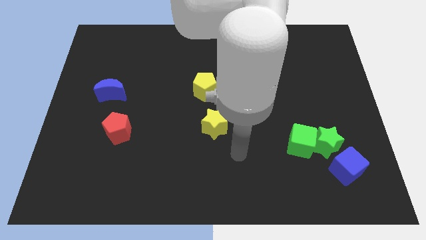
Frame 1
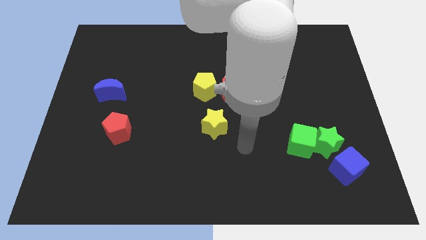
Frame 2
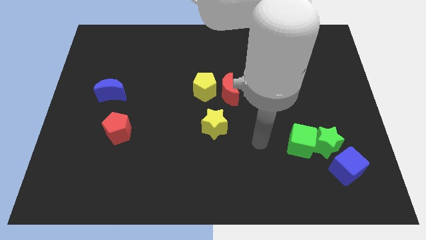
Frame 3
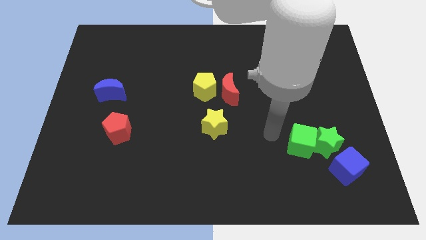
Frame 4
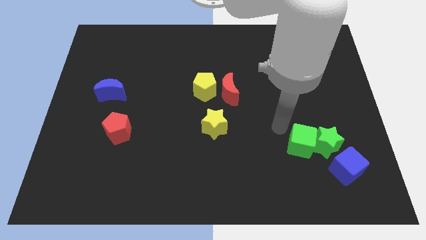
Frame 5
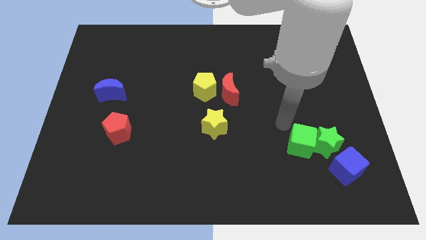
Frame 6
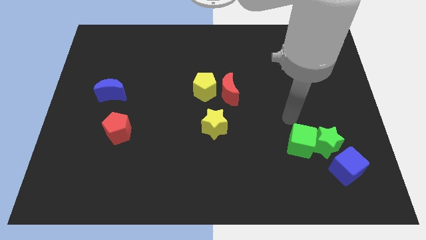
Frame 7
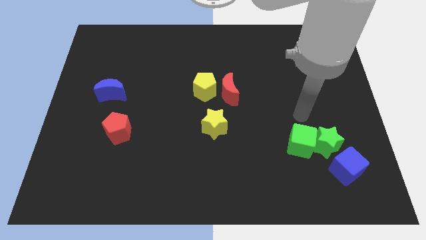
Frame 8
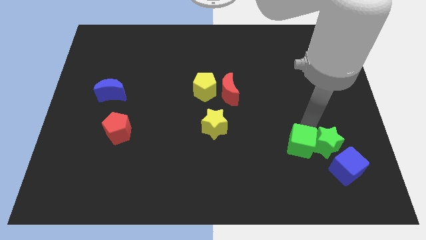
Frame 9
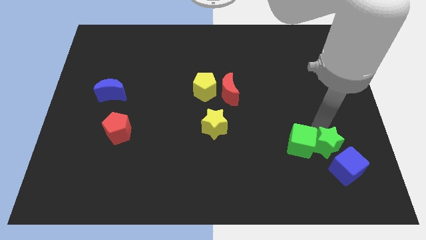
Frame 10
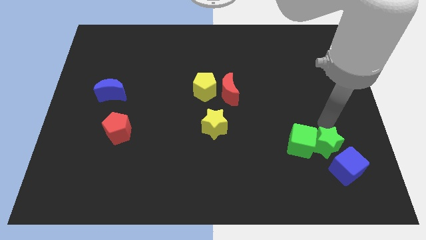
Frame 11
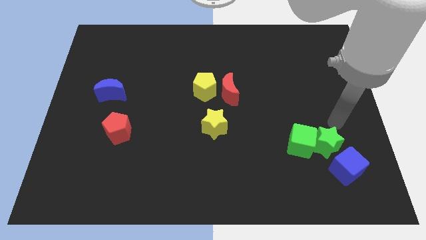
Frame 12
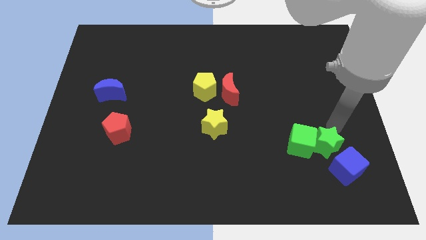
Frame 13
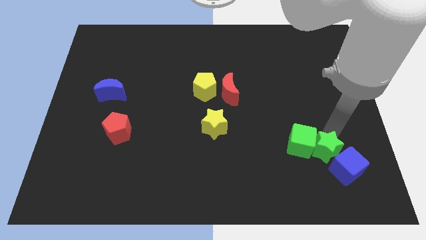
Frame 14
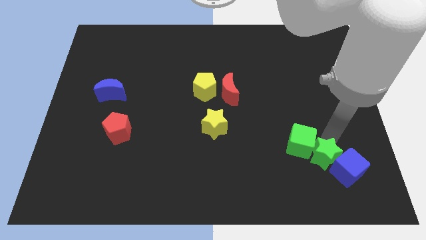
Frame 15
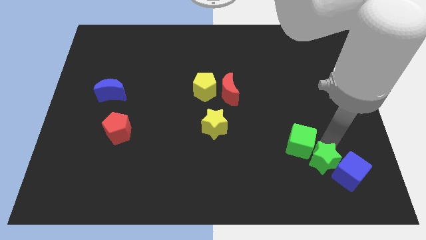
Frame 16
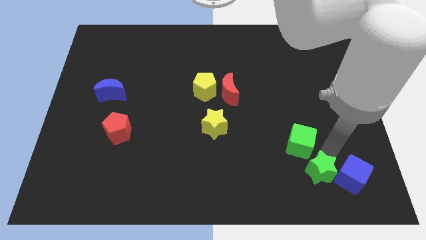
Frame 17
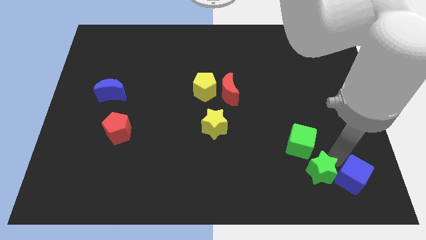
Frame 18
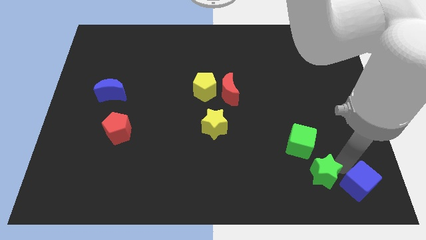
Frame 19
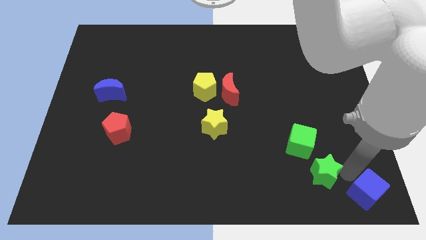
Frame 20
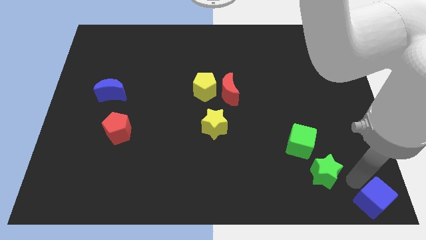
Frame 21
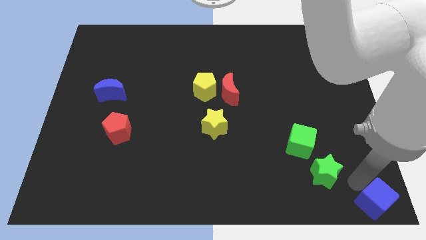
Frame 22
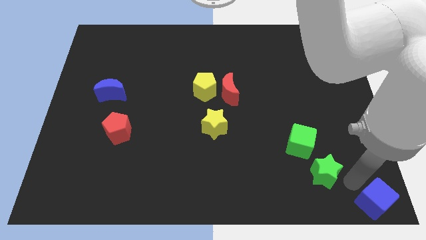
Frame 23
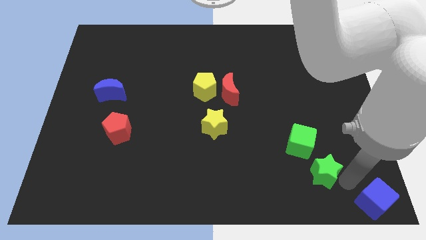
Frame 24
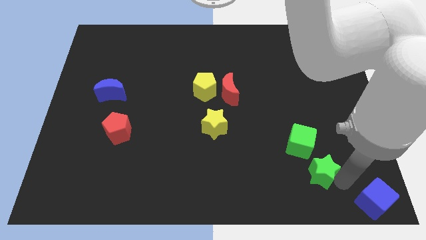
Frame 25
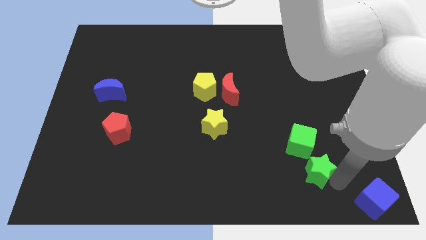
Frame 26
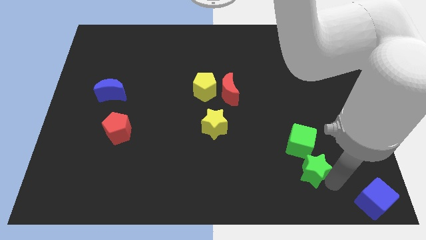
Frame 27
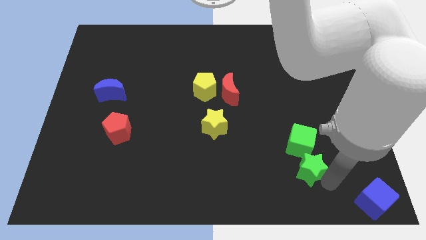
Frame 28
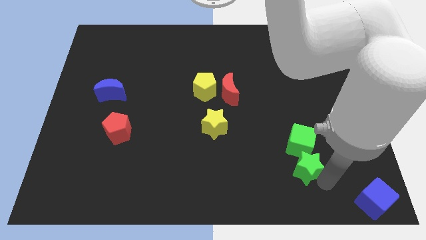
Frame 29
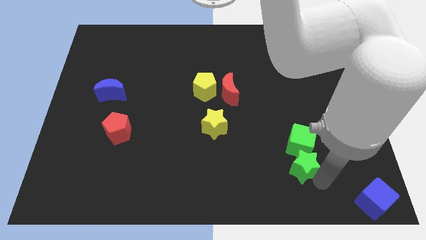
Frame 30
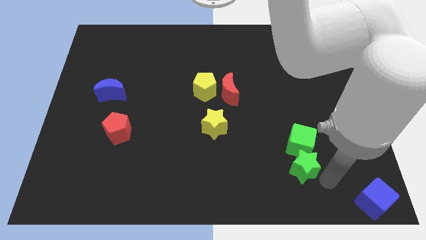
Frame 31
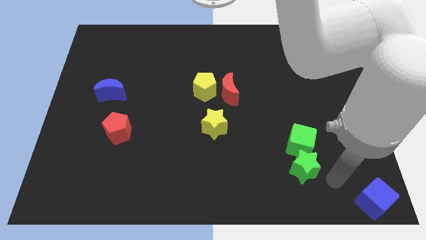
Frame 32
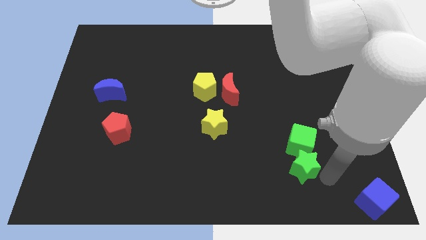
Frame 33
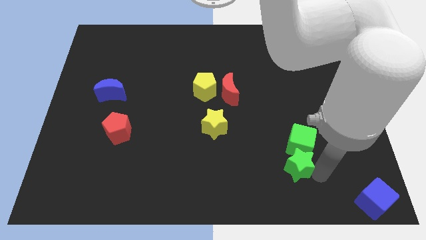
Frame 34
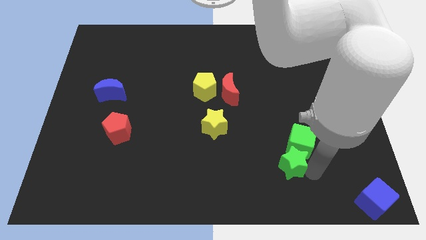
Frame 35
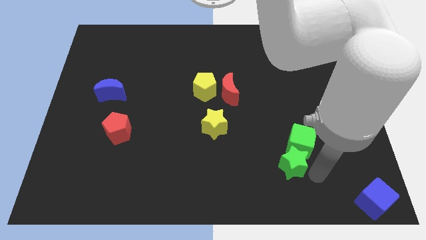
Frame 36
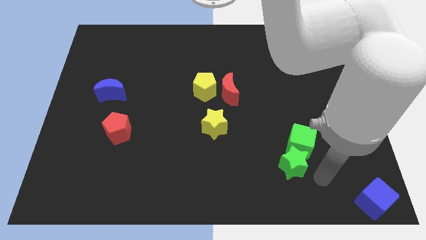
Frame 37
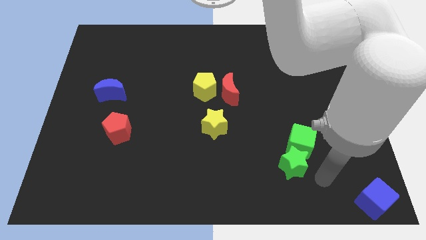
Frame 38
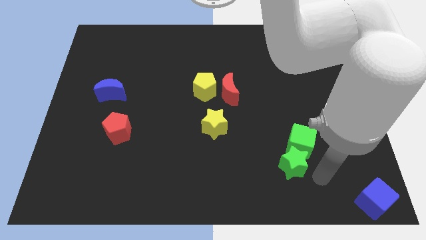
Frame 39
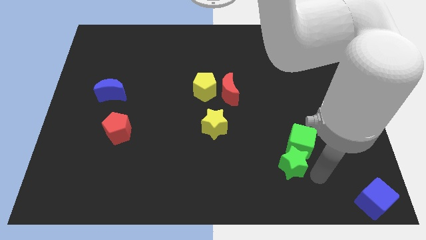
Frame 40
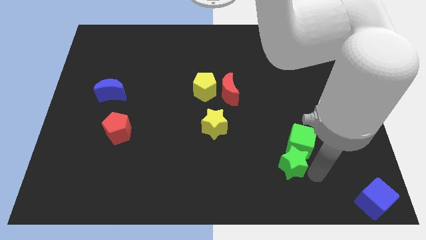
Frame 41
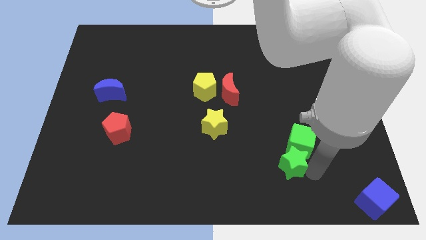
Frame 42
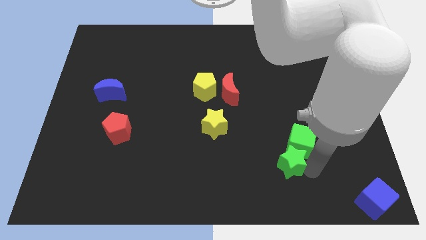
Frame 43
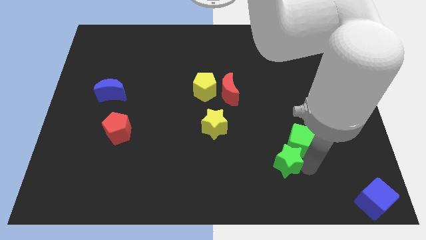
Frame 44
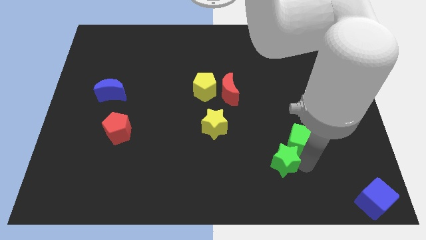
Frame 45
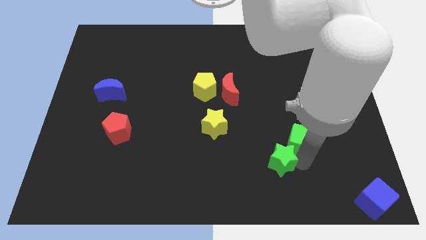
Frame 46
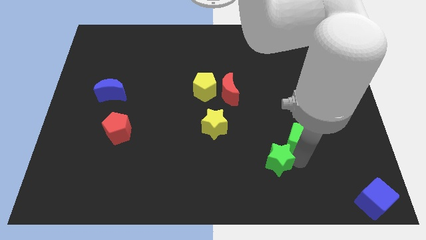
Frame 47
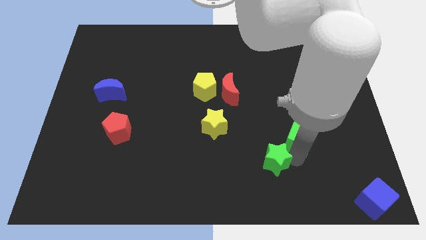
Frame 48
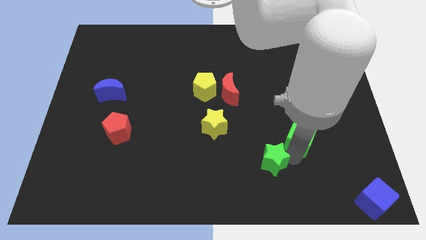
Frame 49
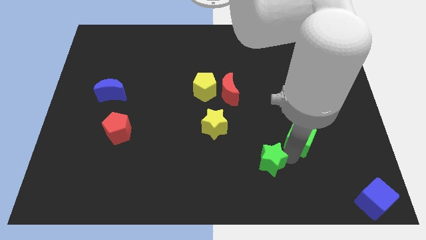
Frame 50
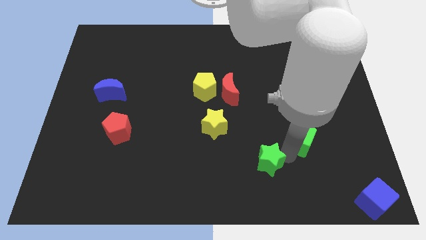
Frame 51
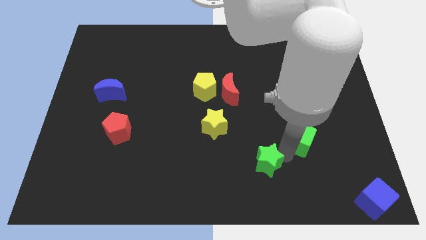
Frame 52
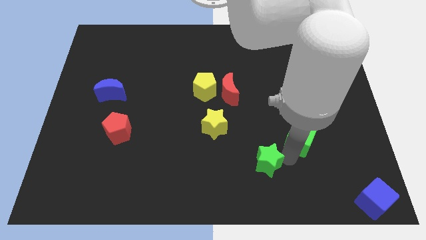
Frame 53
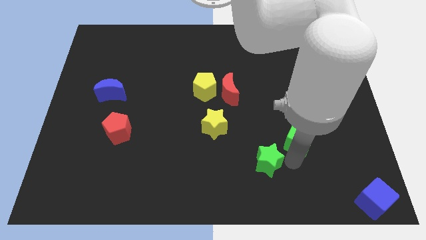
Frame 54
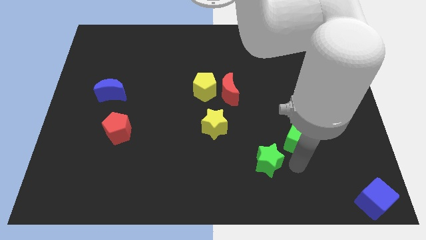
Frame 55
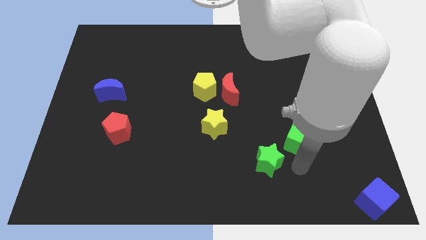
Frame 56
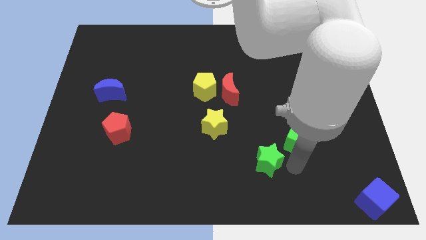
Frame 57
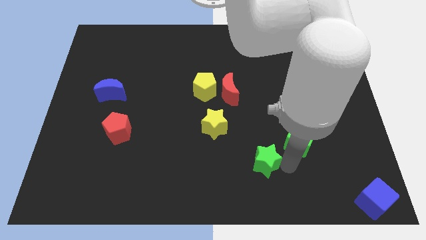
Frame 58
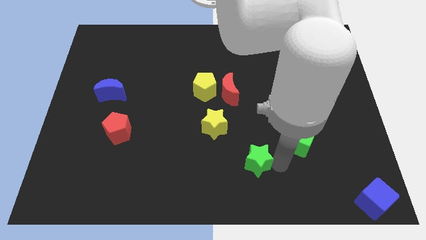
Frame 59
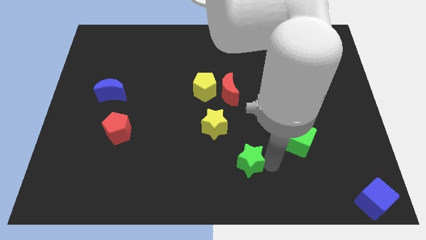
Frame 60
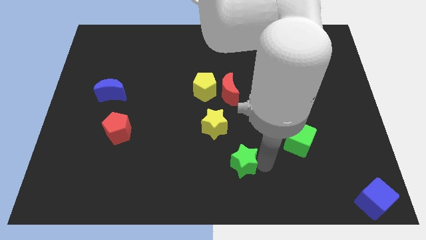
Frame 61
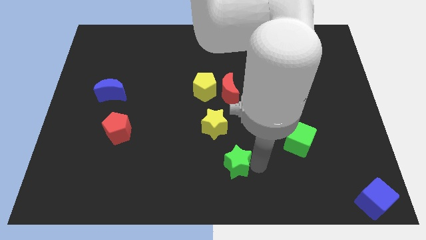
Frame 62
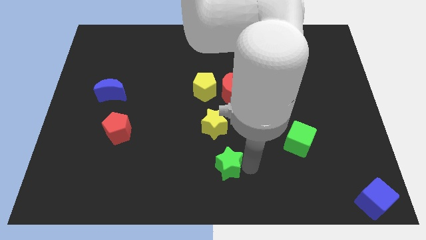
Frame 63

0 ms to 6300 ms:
slide the green star left

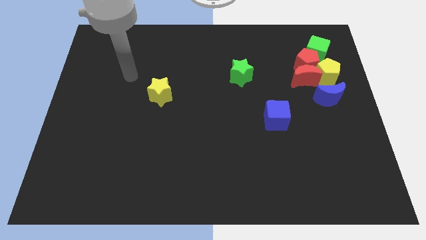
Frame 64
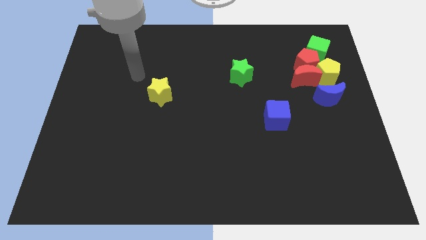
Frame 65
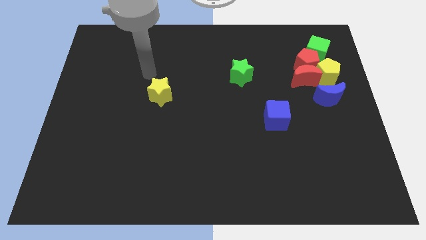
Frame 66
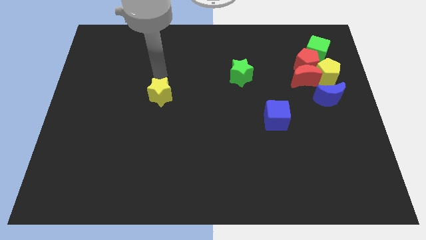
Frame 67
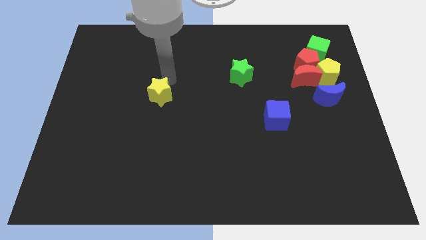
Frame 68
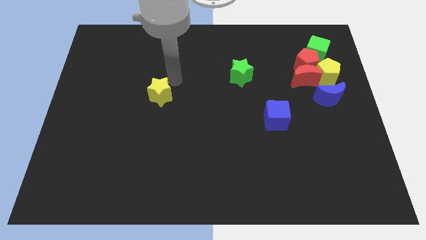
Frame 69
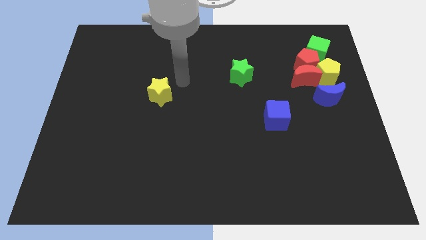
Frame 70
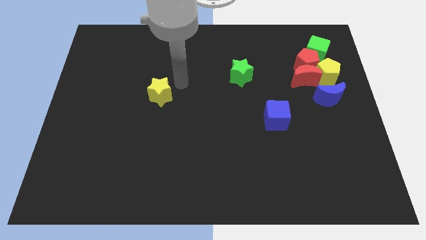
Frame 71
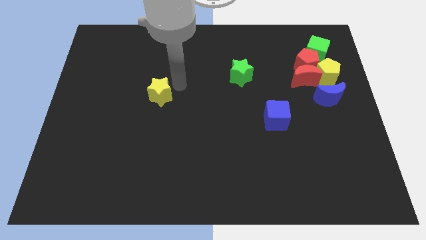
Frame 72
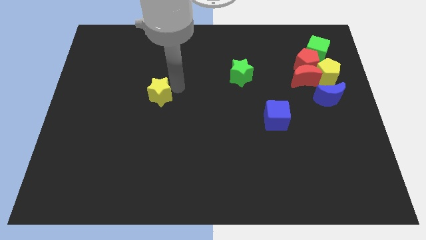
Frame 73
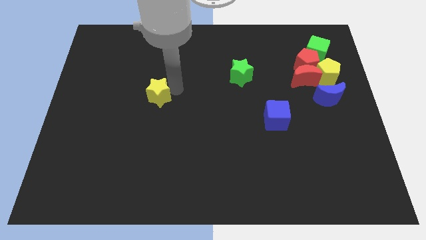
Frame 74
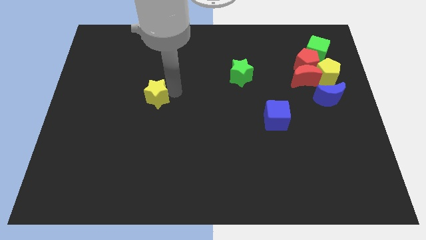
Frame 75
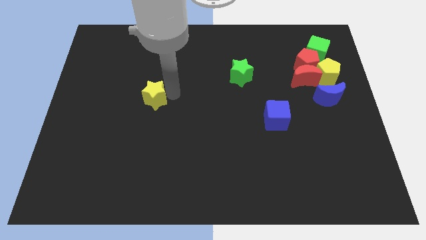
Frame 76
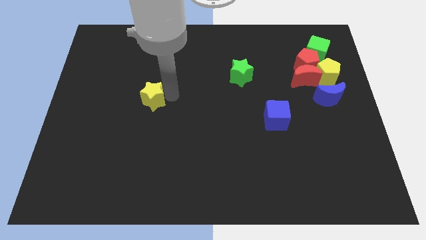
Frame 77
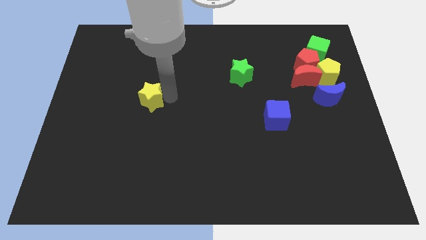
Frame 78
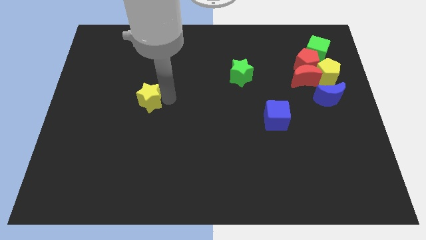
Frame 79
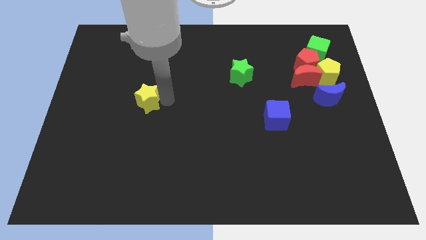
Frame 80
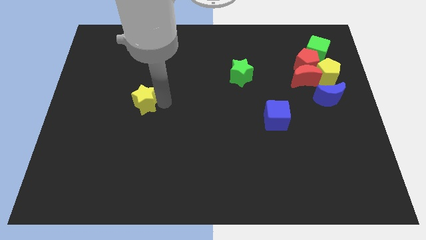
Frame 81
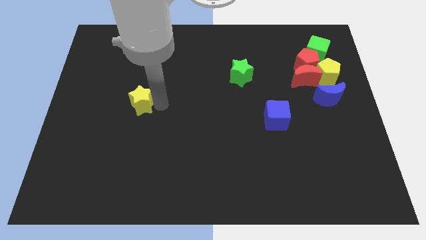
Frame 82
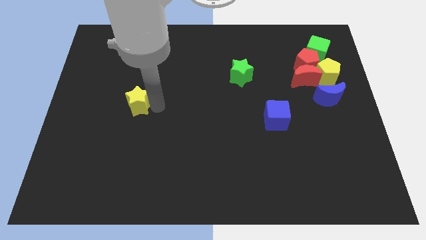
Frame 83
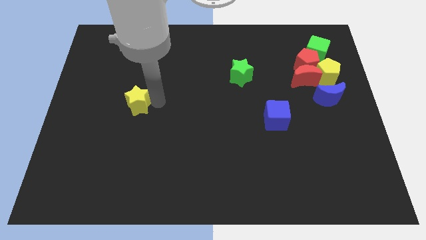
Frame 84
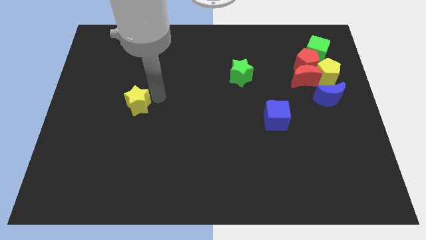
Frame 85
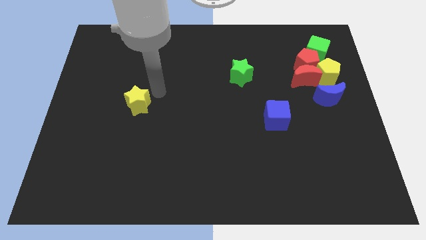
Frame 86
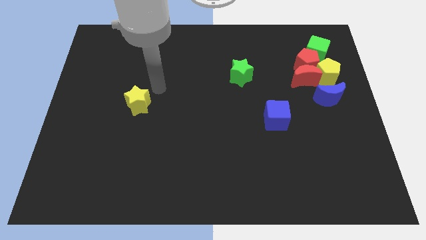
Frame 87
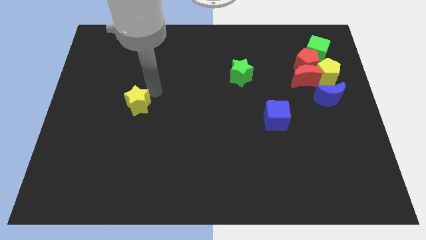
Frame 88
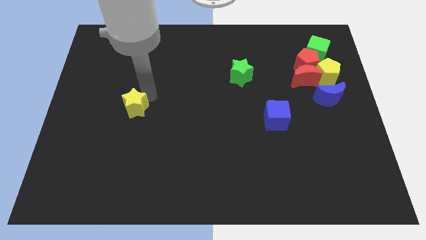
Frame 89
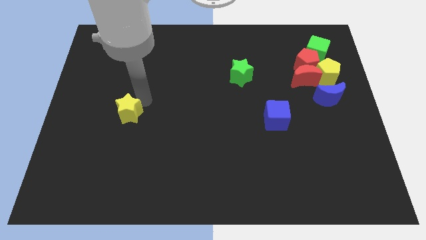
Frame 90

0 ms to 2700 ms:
slightly slide the yellow star diagonally downwards and to the left
